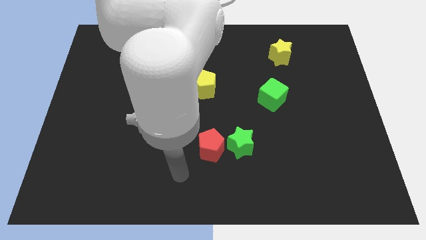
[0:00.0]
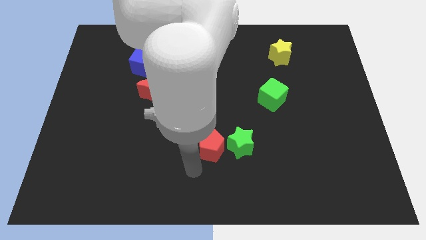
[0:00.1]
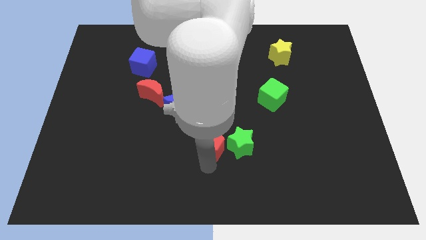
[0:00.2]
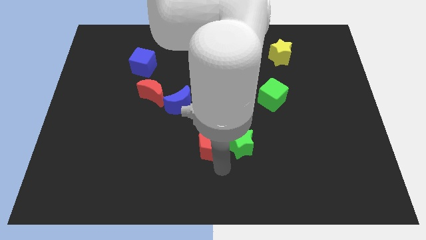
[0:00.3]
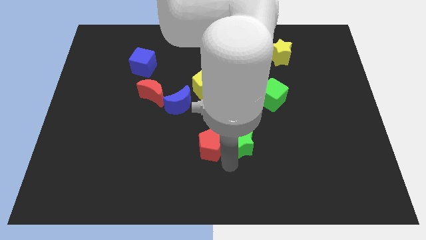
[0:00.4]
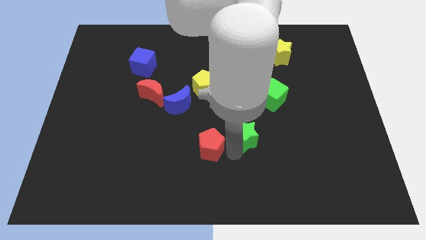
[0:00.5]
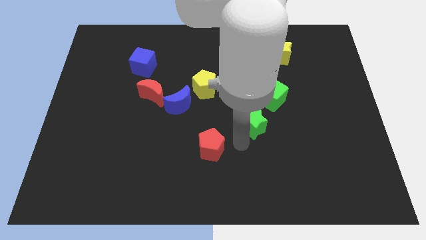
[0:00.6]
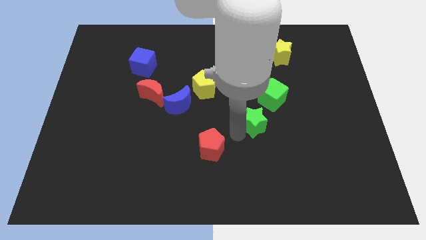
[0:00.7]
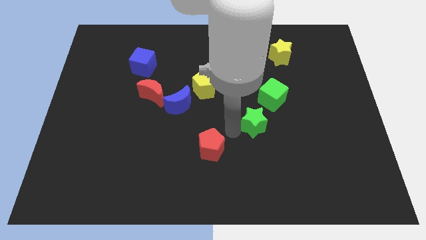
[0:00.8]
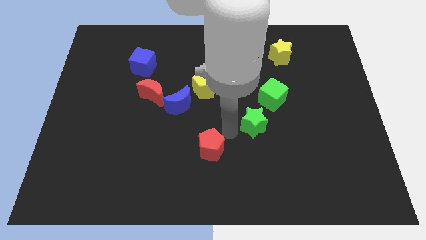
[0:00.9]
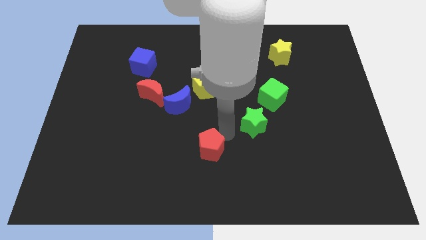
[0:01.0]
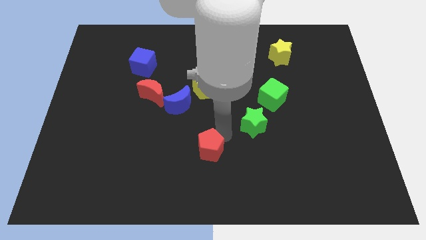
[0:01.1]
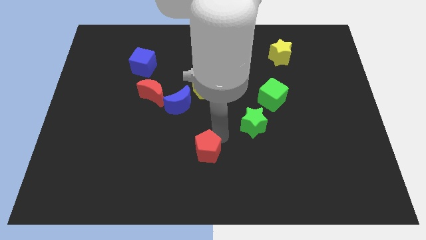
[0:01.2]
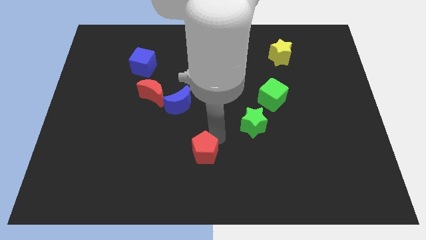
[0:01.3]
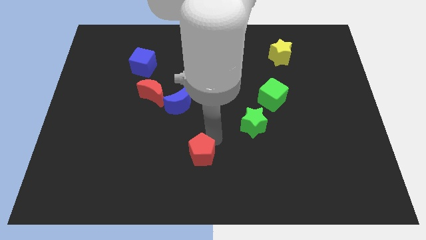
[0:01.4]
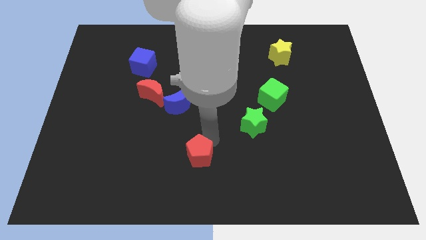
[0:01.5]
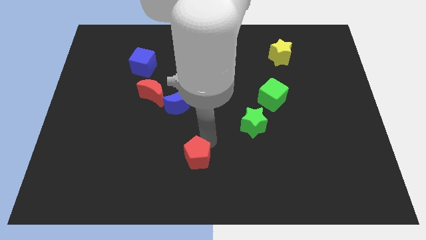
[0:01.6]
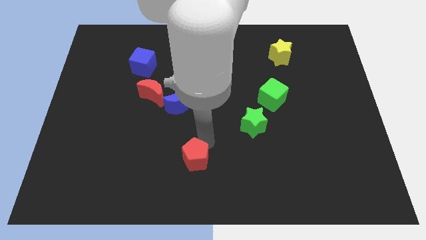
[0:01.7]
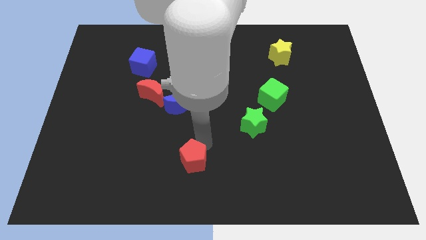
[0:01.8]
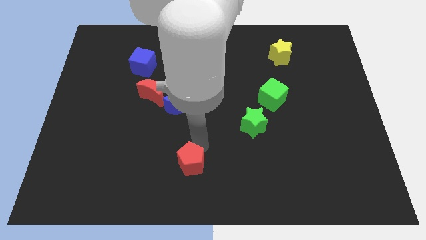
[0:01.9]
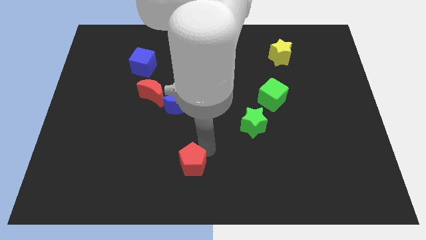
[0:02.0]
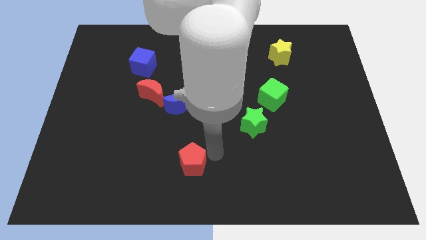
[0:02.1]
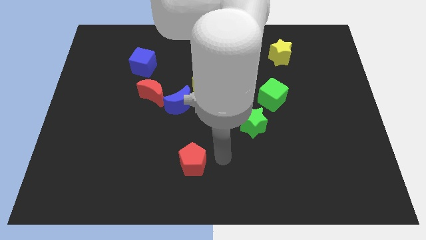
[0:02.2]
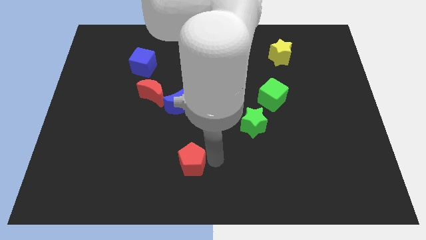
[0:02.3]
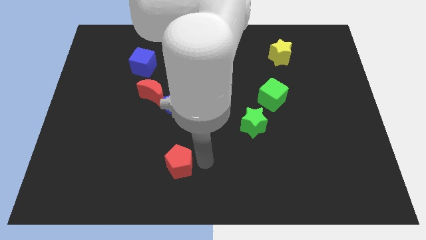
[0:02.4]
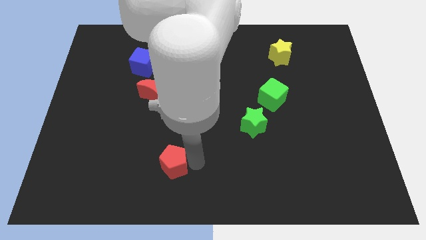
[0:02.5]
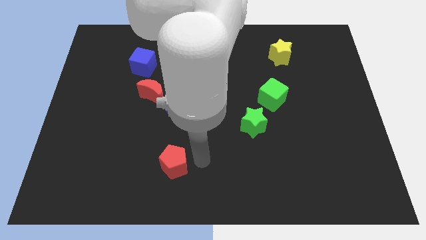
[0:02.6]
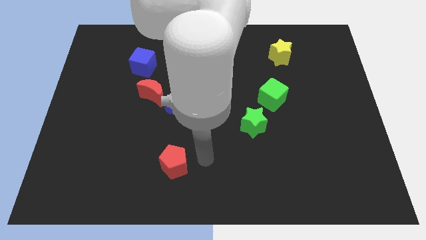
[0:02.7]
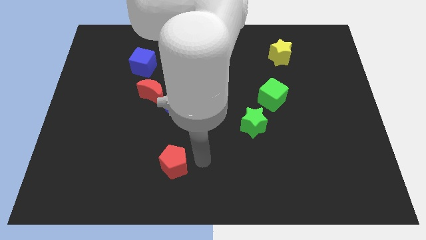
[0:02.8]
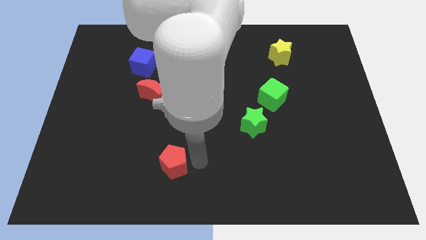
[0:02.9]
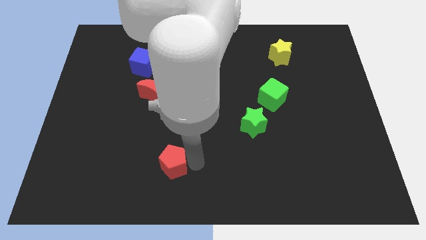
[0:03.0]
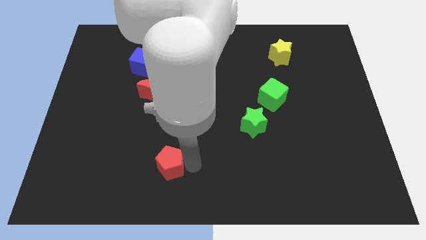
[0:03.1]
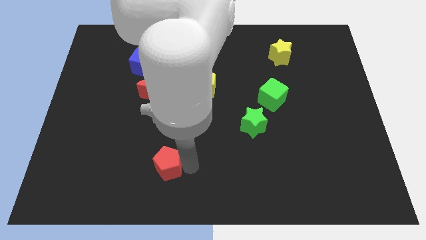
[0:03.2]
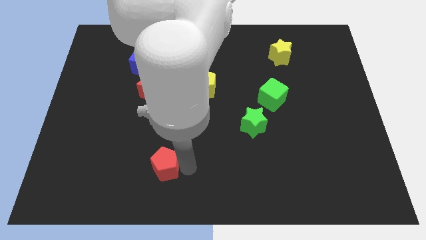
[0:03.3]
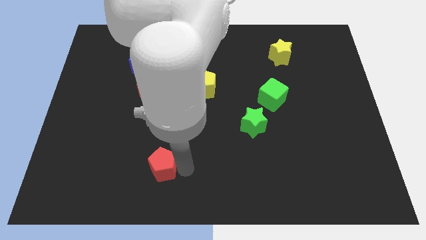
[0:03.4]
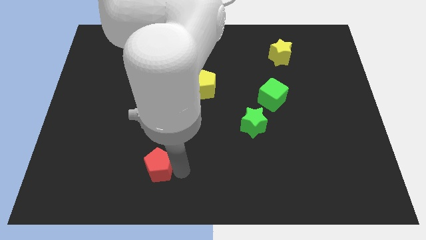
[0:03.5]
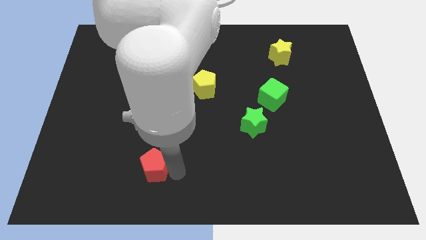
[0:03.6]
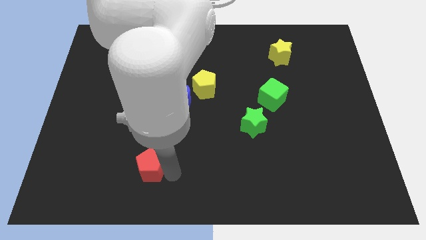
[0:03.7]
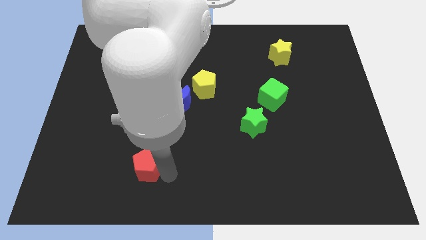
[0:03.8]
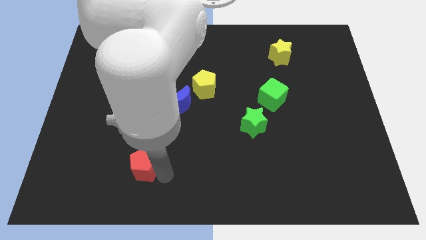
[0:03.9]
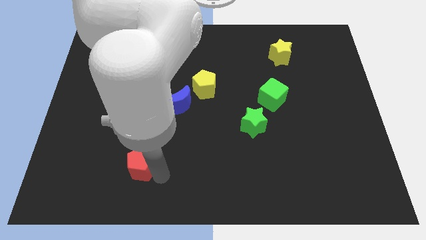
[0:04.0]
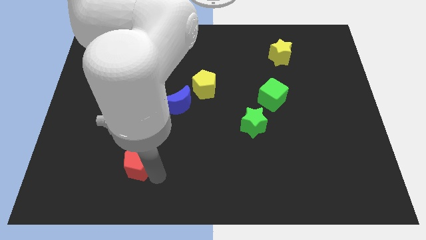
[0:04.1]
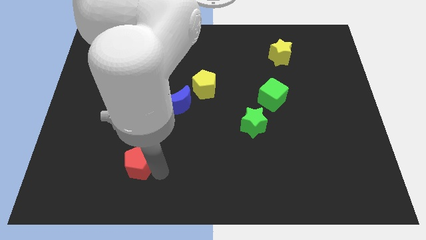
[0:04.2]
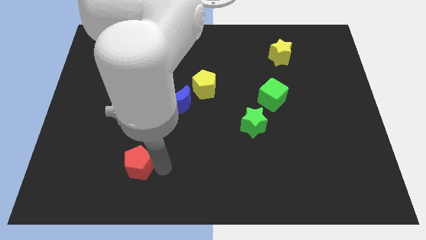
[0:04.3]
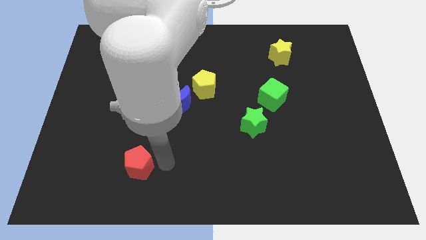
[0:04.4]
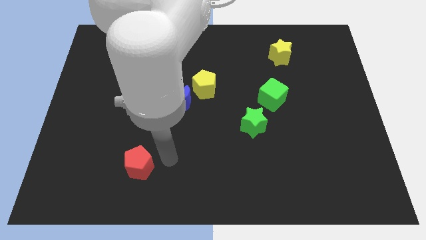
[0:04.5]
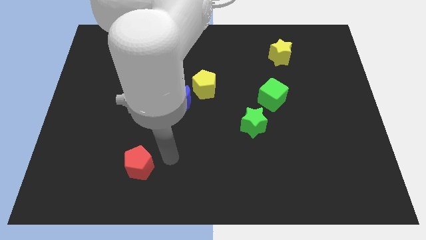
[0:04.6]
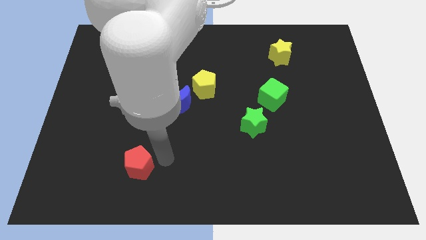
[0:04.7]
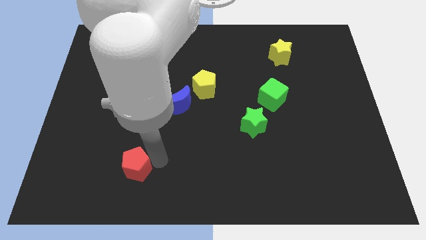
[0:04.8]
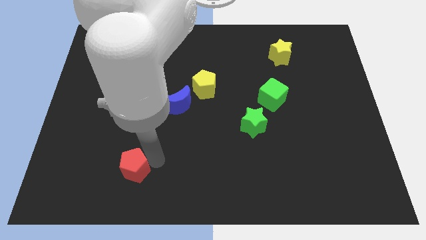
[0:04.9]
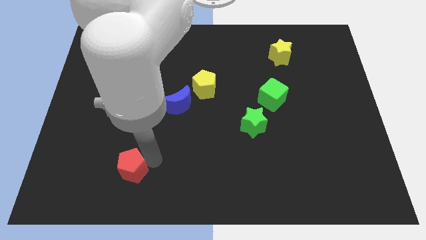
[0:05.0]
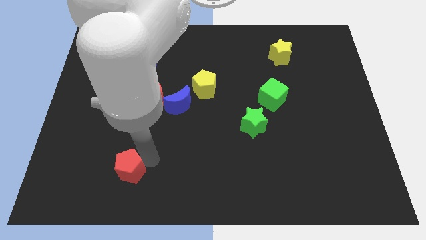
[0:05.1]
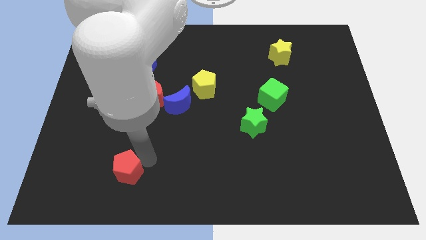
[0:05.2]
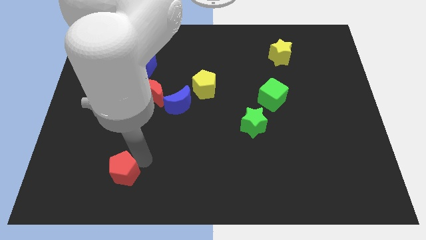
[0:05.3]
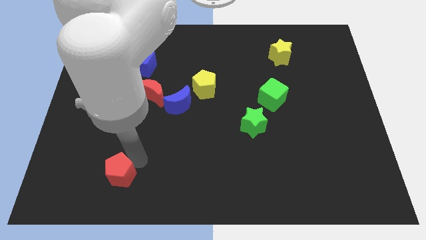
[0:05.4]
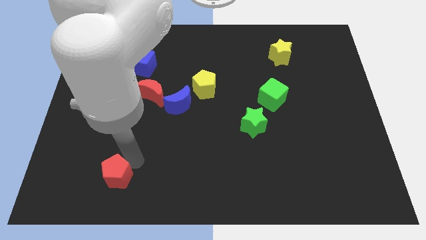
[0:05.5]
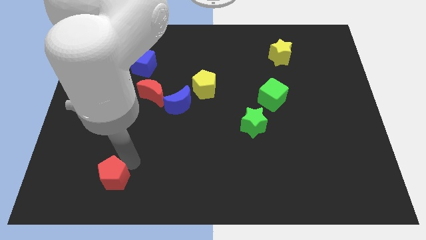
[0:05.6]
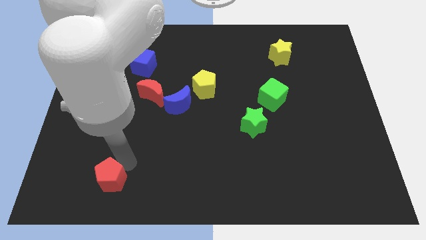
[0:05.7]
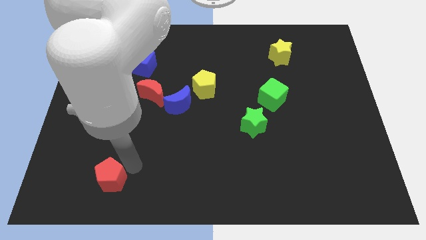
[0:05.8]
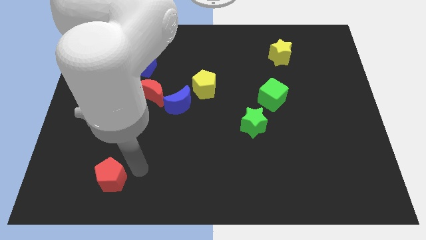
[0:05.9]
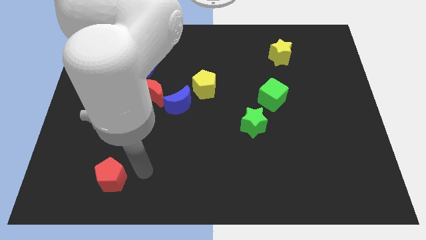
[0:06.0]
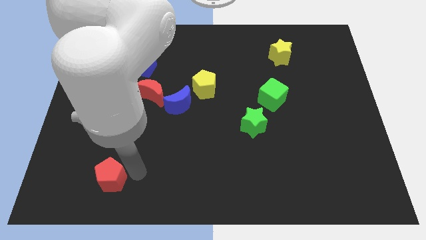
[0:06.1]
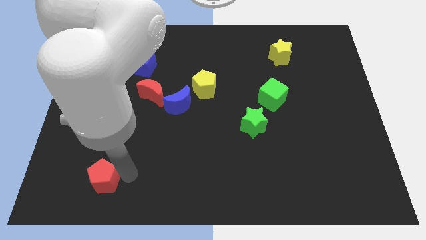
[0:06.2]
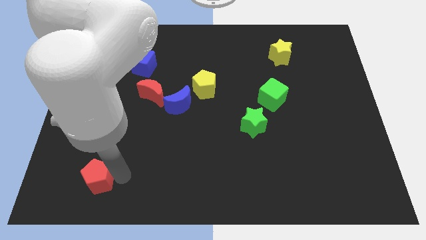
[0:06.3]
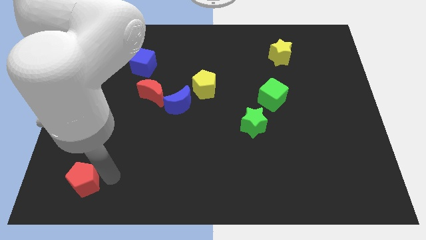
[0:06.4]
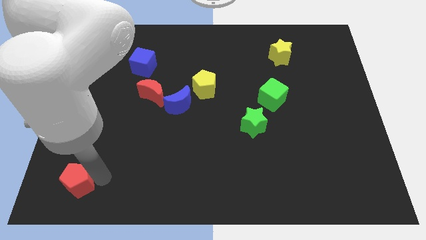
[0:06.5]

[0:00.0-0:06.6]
slide the red pentagon to the lower left corner
